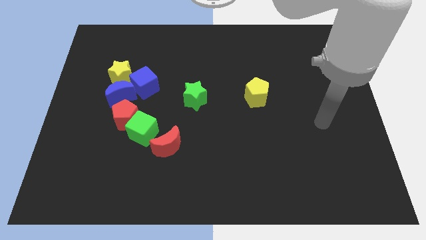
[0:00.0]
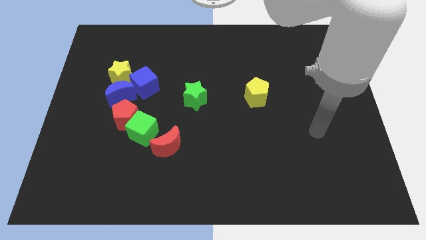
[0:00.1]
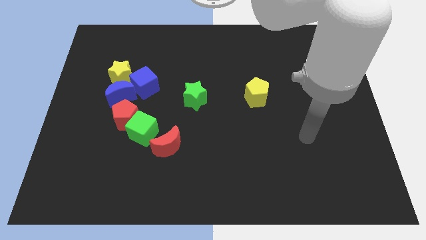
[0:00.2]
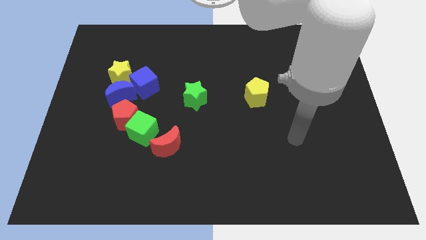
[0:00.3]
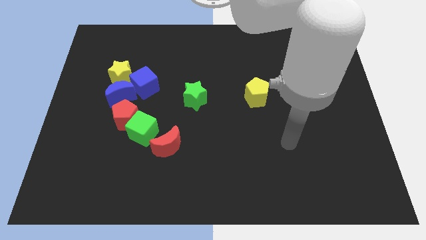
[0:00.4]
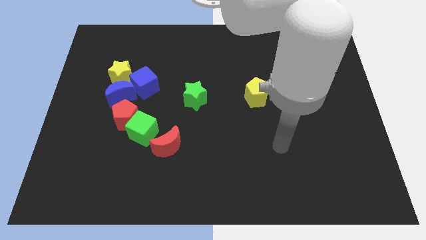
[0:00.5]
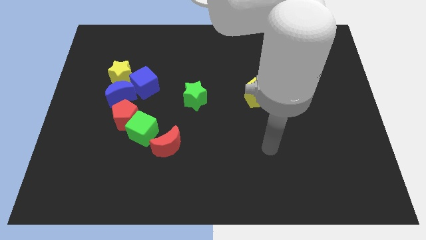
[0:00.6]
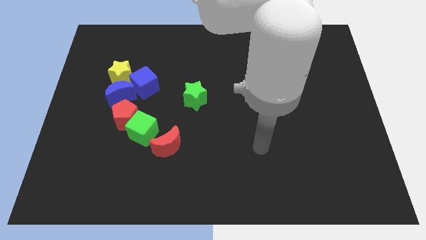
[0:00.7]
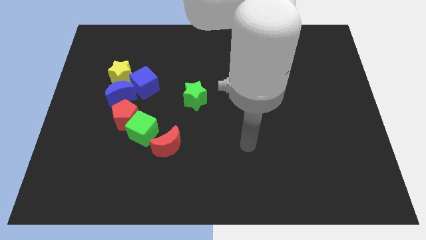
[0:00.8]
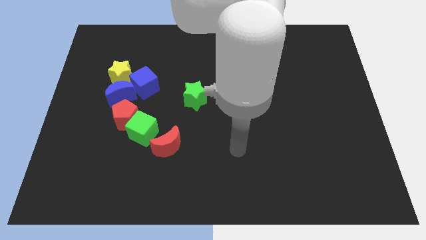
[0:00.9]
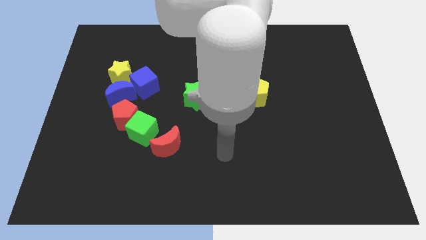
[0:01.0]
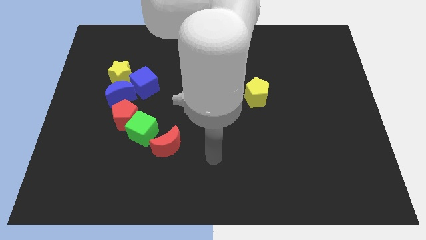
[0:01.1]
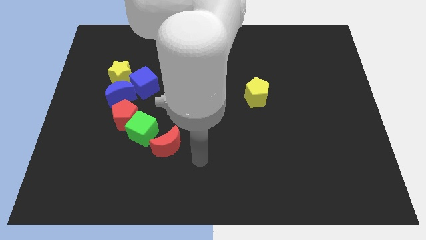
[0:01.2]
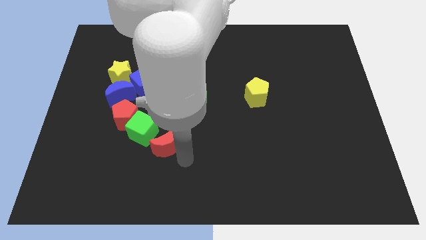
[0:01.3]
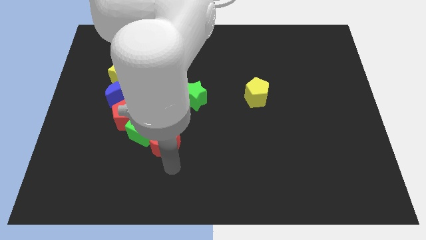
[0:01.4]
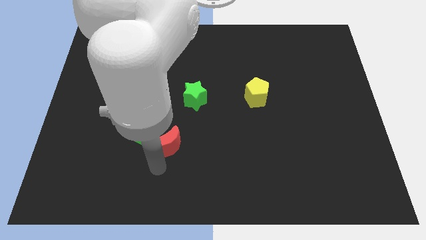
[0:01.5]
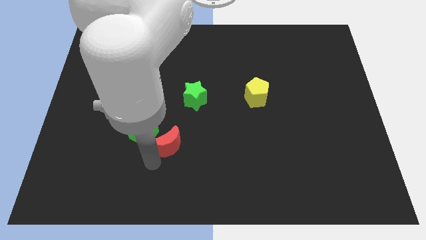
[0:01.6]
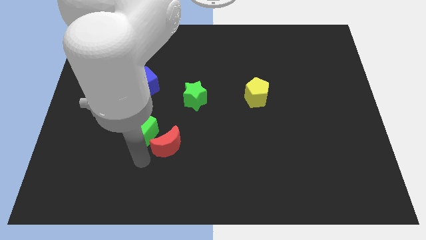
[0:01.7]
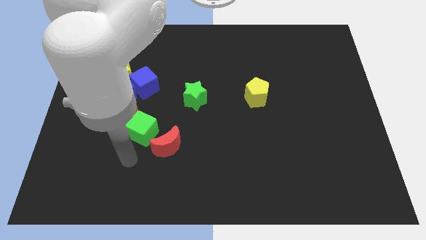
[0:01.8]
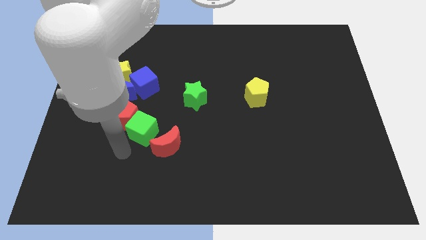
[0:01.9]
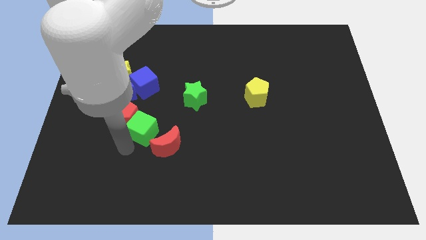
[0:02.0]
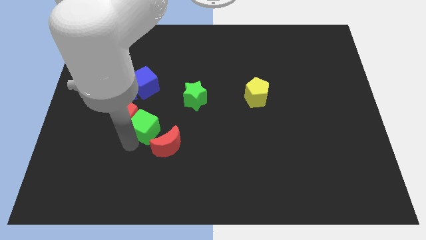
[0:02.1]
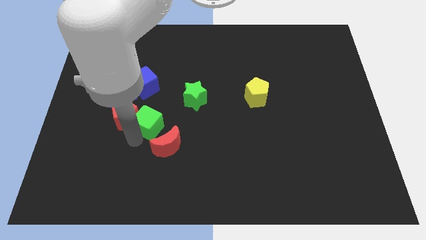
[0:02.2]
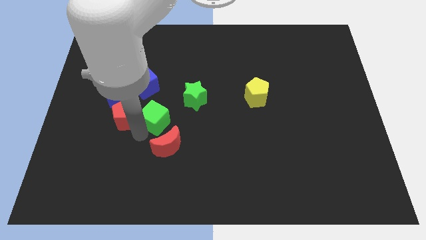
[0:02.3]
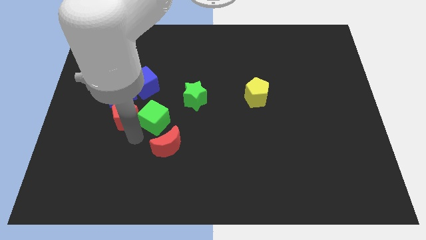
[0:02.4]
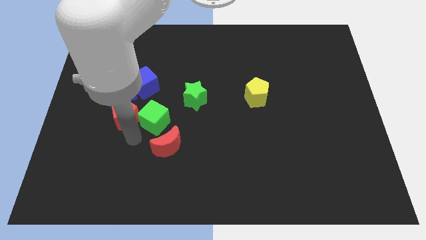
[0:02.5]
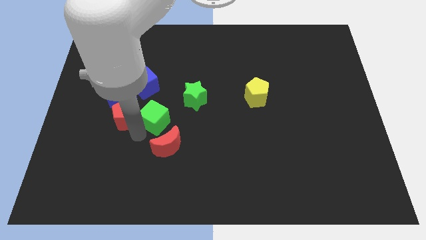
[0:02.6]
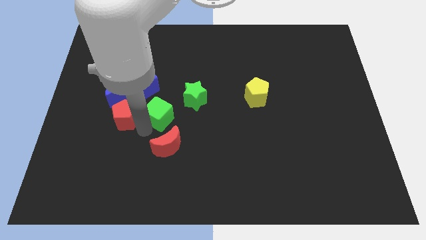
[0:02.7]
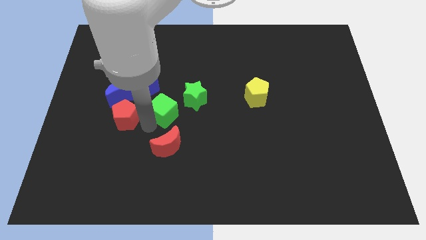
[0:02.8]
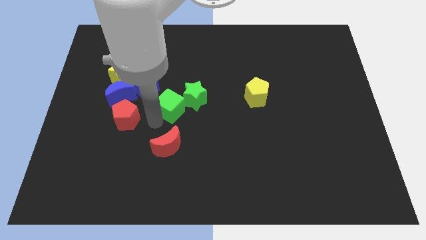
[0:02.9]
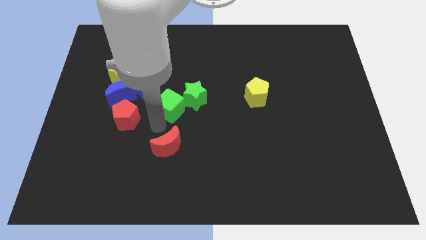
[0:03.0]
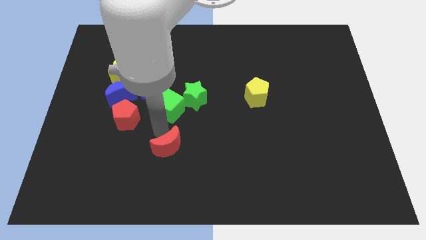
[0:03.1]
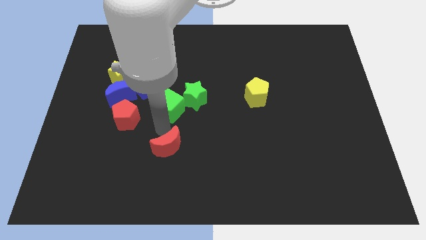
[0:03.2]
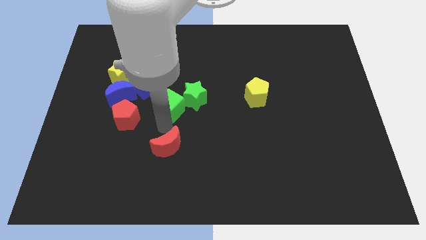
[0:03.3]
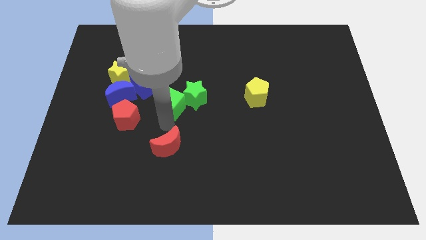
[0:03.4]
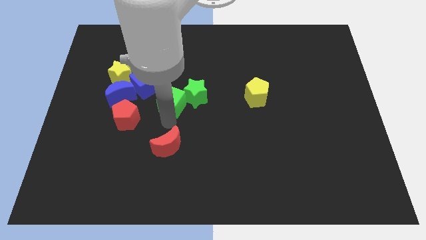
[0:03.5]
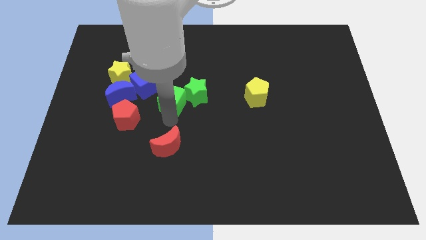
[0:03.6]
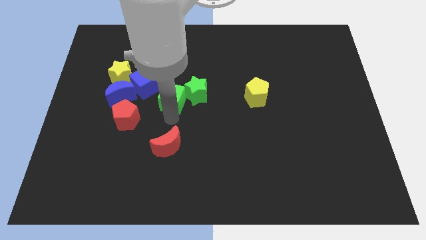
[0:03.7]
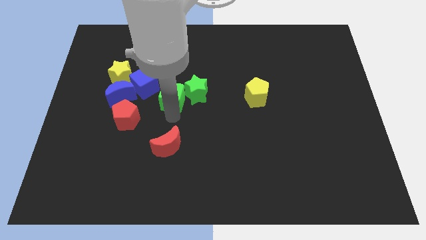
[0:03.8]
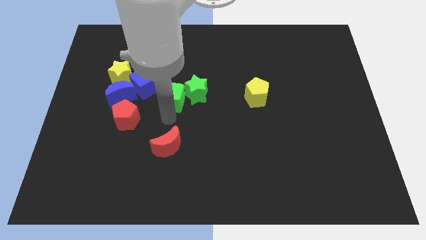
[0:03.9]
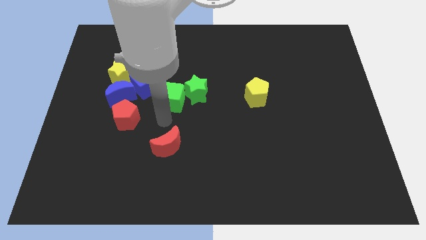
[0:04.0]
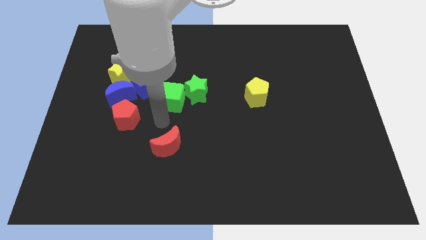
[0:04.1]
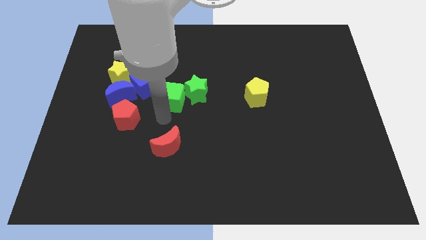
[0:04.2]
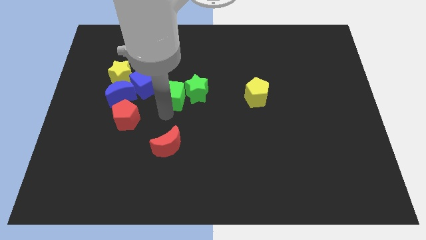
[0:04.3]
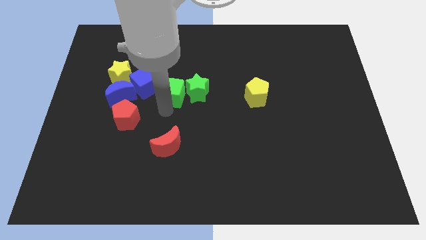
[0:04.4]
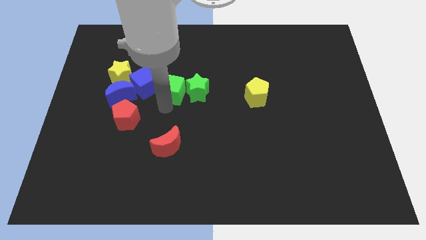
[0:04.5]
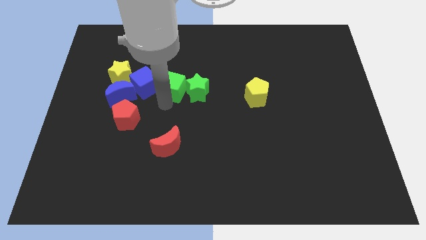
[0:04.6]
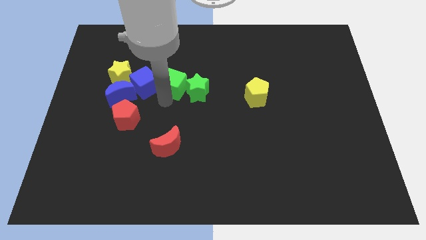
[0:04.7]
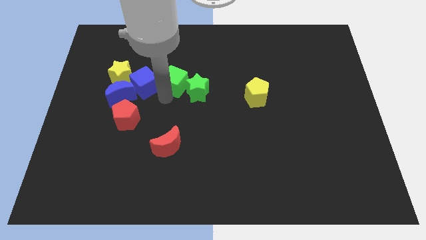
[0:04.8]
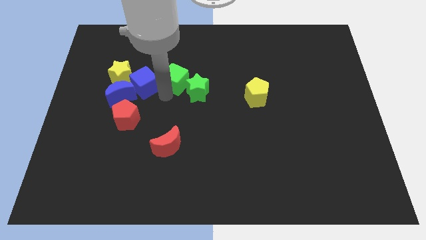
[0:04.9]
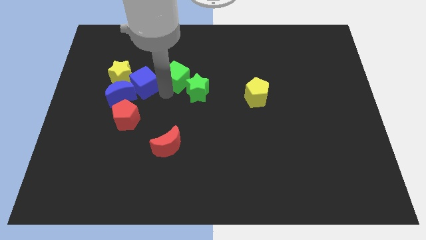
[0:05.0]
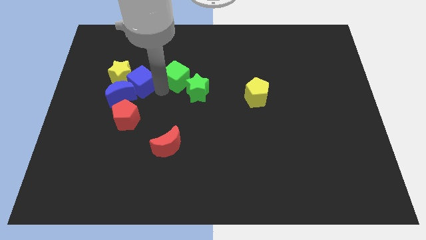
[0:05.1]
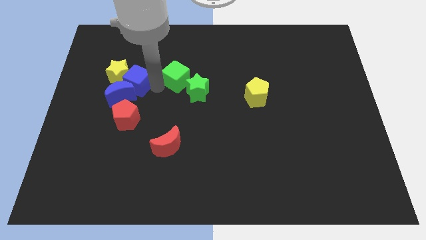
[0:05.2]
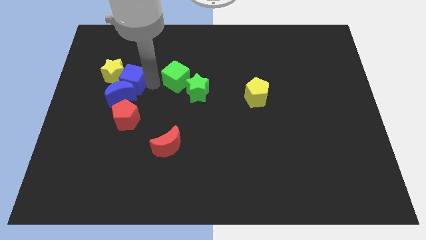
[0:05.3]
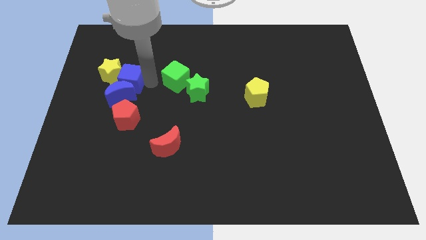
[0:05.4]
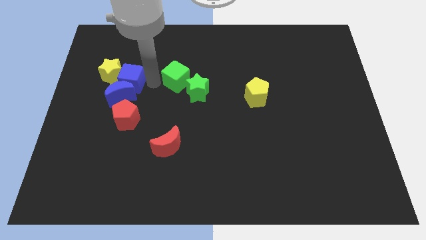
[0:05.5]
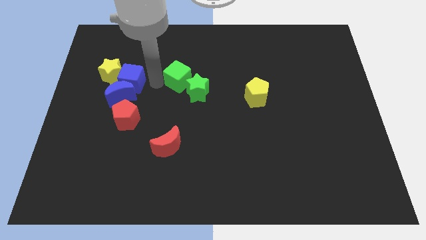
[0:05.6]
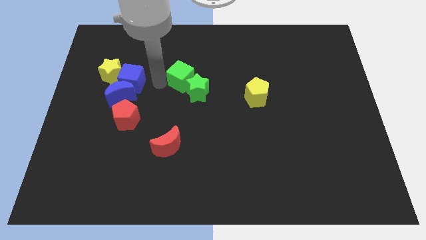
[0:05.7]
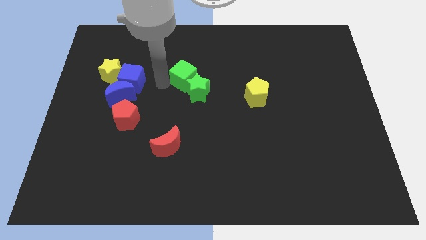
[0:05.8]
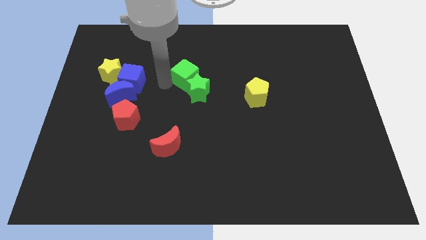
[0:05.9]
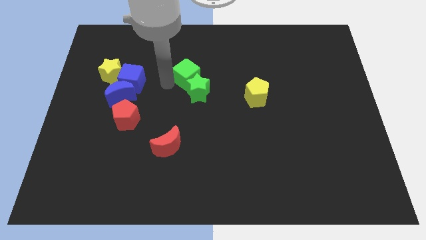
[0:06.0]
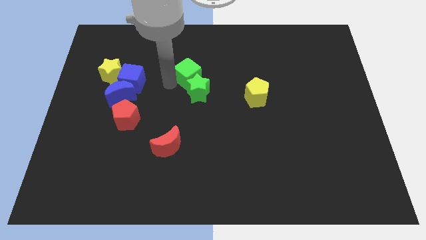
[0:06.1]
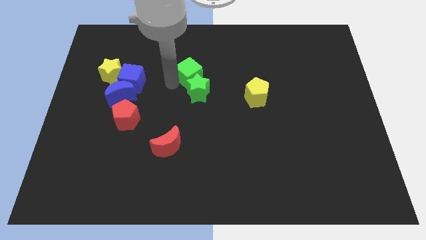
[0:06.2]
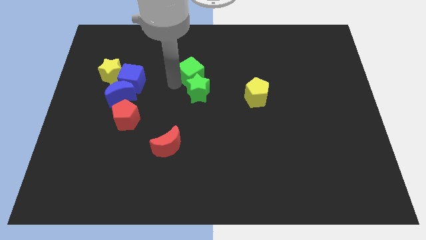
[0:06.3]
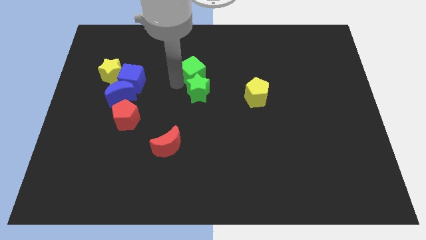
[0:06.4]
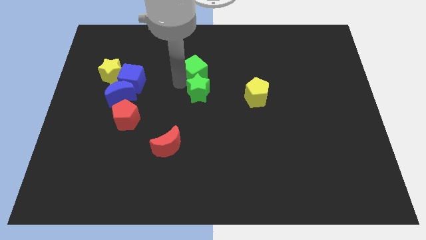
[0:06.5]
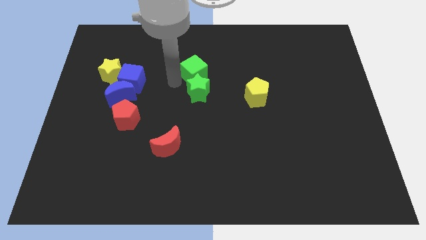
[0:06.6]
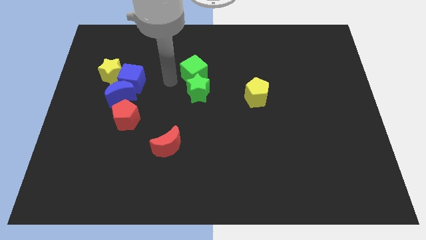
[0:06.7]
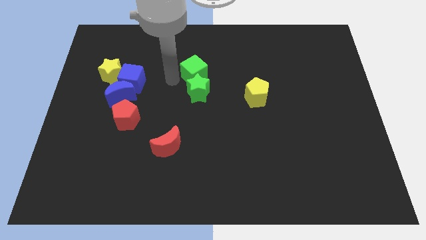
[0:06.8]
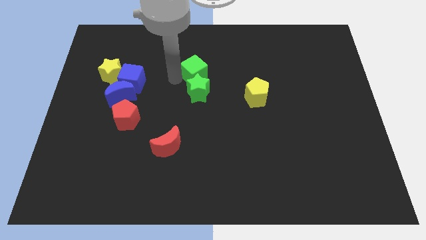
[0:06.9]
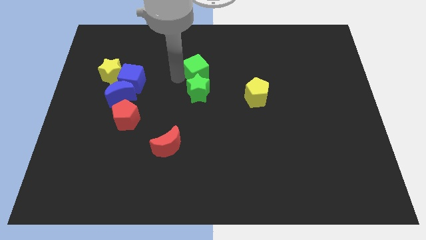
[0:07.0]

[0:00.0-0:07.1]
slide the green cube upwards and then right

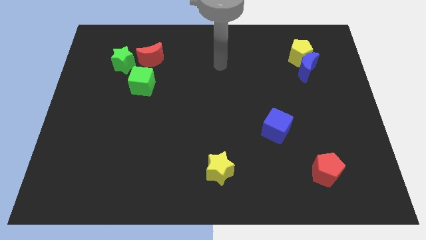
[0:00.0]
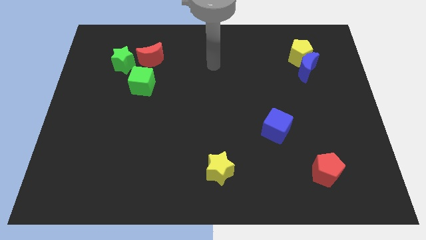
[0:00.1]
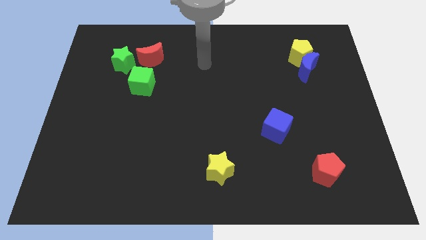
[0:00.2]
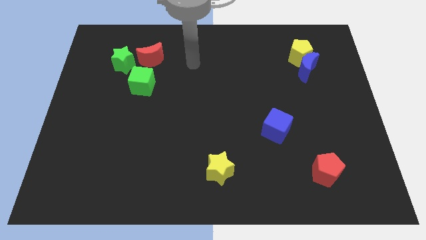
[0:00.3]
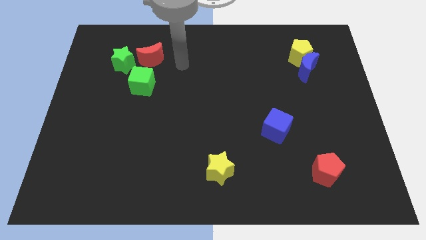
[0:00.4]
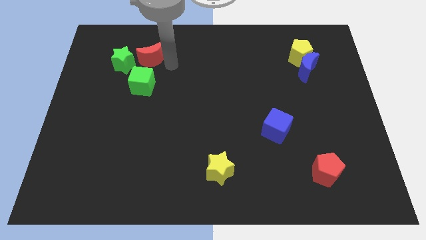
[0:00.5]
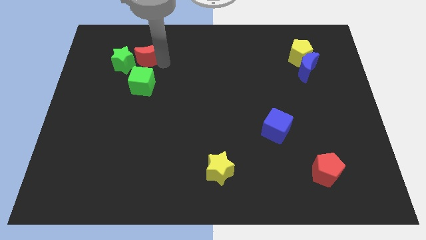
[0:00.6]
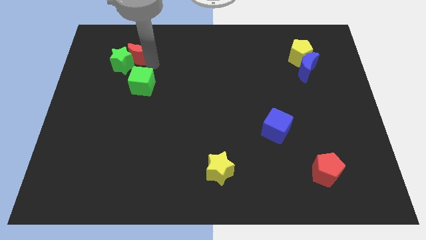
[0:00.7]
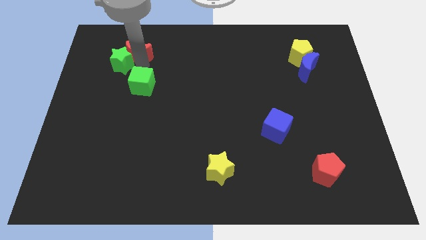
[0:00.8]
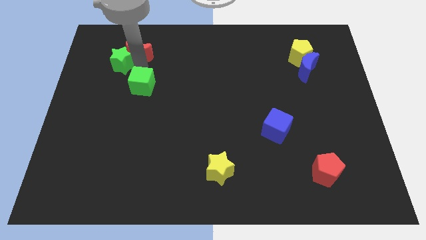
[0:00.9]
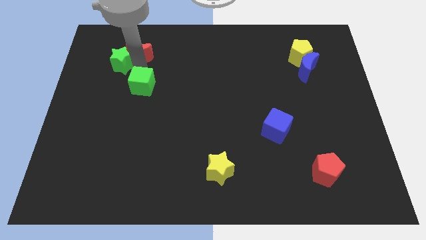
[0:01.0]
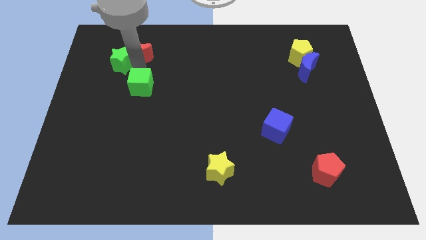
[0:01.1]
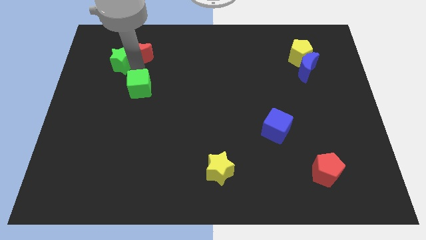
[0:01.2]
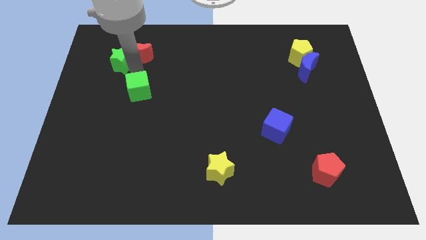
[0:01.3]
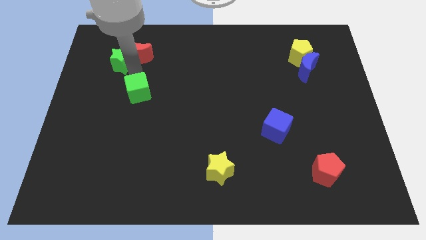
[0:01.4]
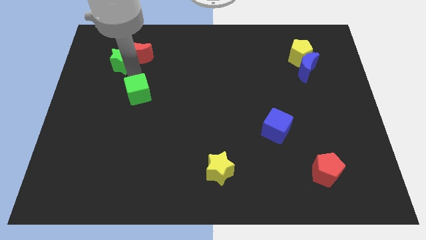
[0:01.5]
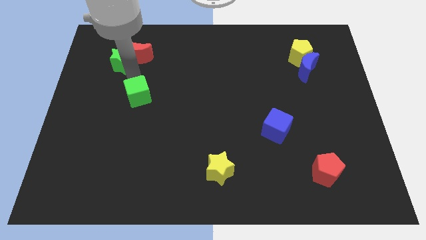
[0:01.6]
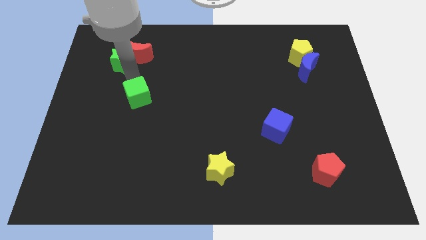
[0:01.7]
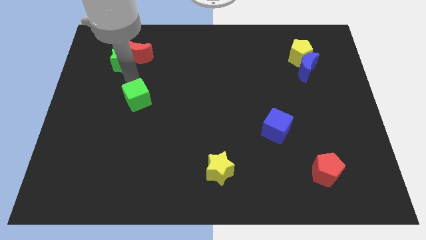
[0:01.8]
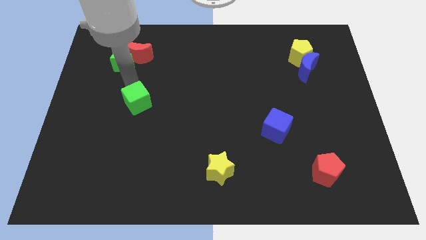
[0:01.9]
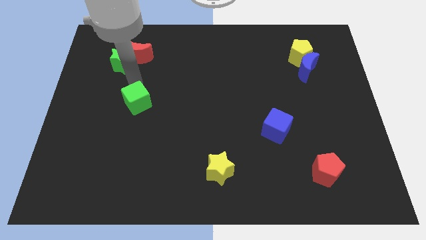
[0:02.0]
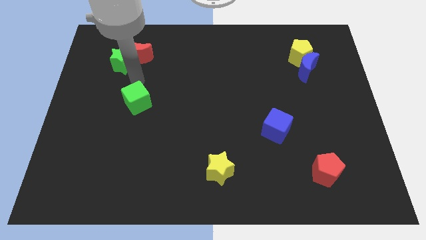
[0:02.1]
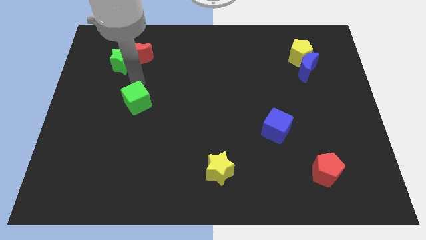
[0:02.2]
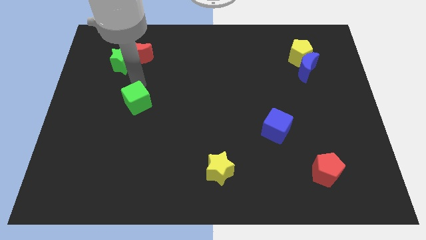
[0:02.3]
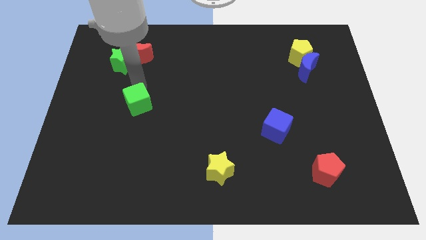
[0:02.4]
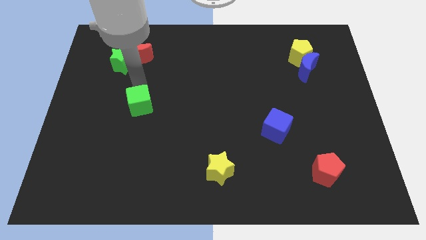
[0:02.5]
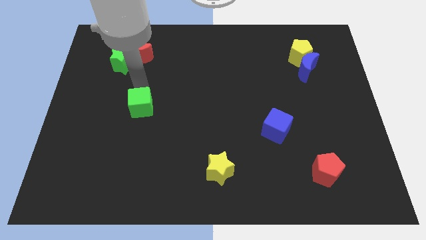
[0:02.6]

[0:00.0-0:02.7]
move the green cube slightly down
